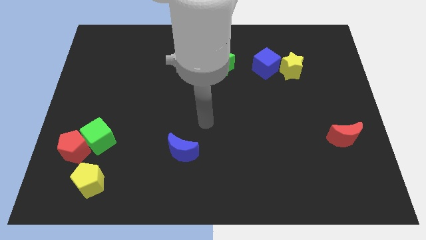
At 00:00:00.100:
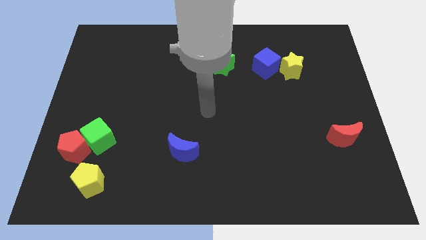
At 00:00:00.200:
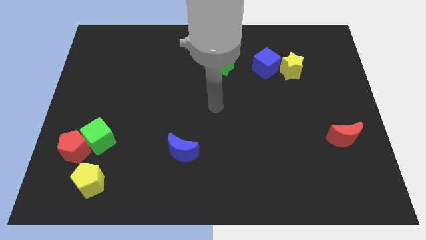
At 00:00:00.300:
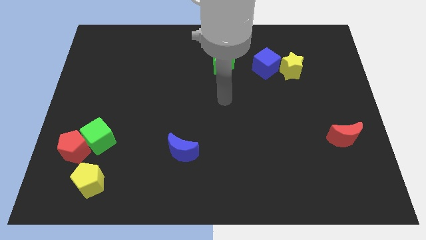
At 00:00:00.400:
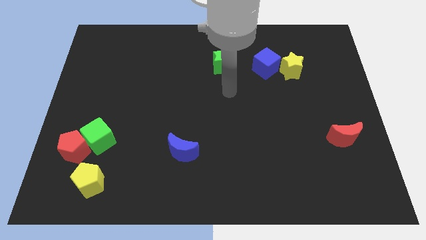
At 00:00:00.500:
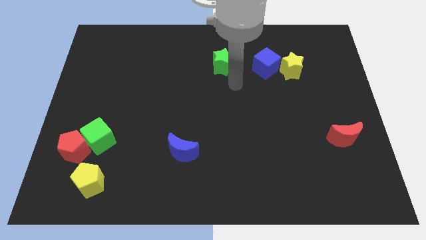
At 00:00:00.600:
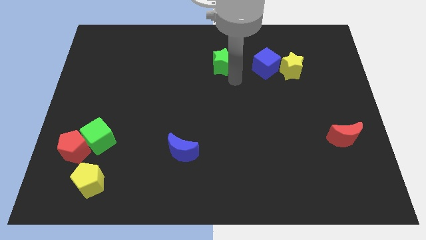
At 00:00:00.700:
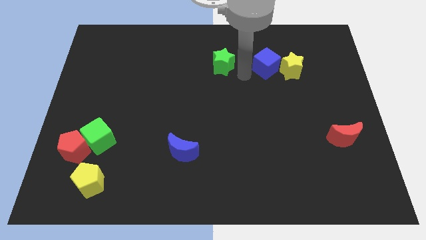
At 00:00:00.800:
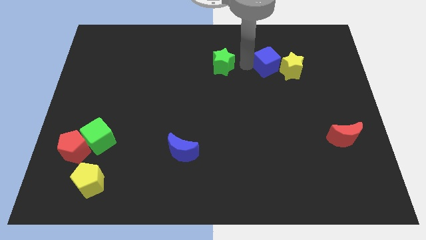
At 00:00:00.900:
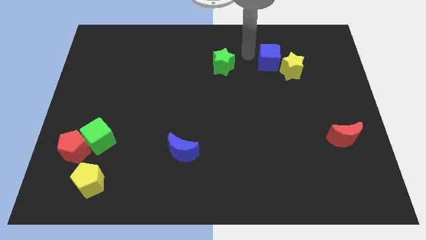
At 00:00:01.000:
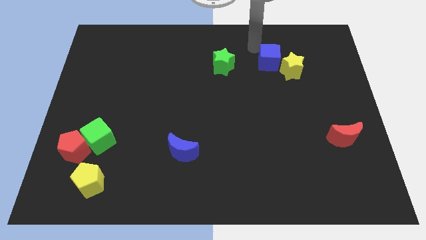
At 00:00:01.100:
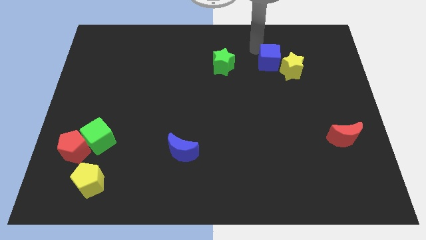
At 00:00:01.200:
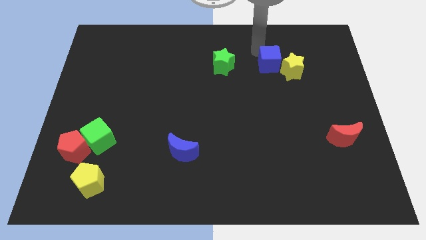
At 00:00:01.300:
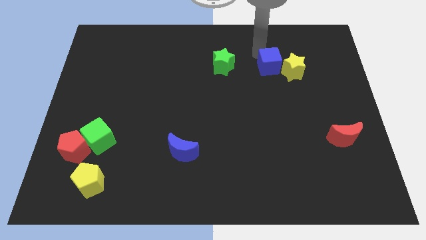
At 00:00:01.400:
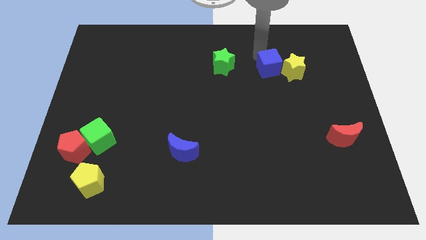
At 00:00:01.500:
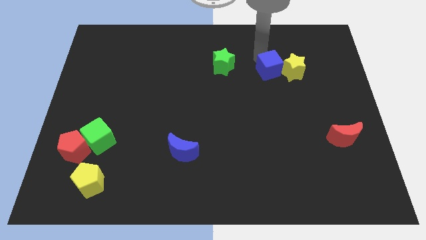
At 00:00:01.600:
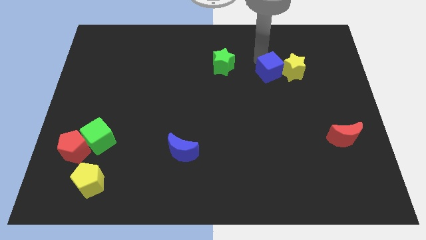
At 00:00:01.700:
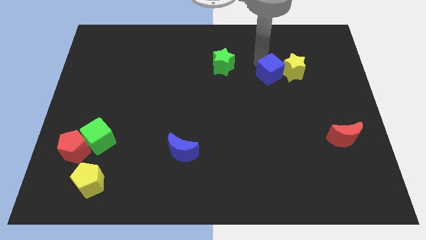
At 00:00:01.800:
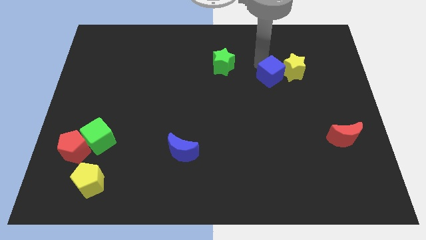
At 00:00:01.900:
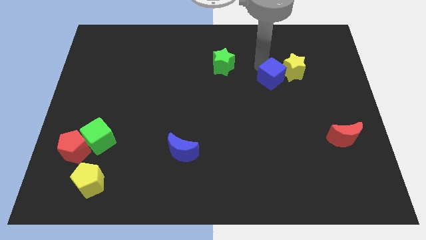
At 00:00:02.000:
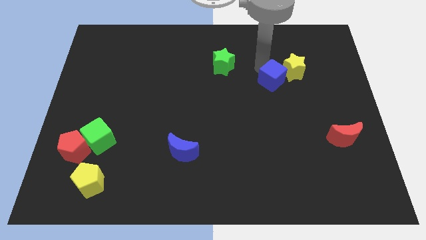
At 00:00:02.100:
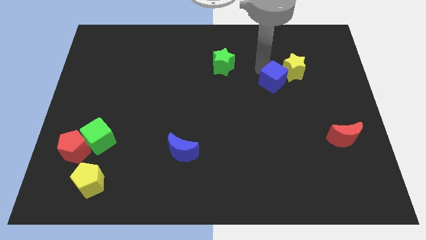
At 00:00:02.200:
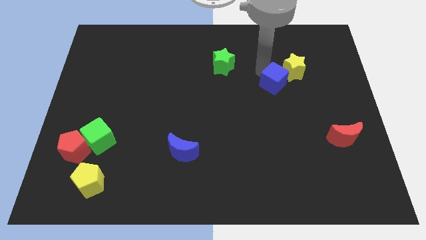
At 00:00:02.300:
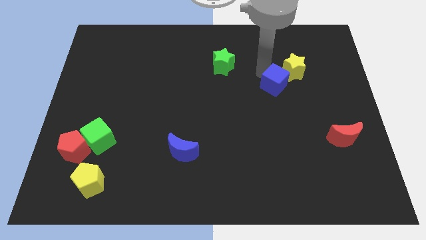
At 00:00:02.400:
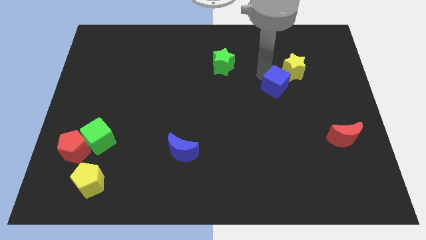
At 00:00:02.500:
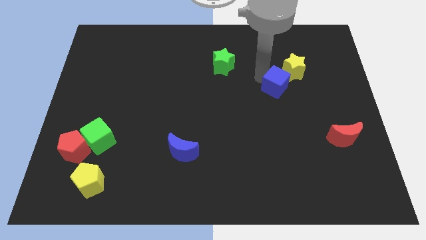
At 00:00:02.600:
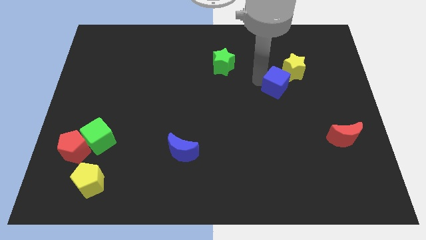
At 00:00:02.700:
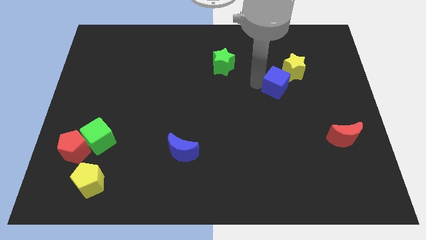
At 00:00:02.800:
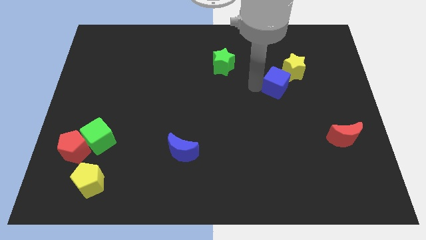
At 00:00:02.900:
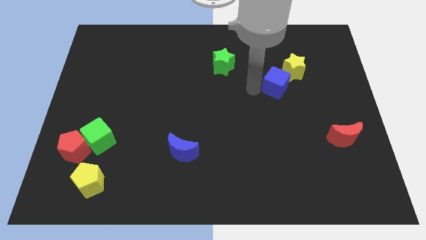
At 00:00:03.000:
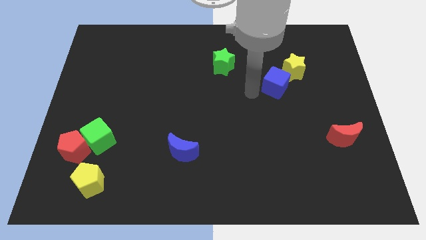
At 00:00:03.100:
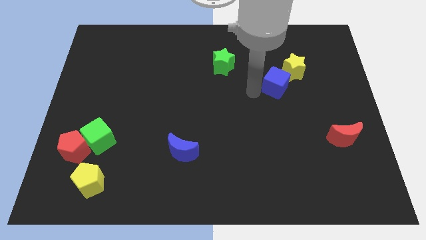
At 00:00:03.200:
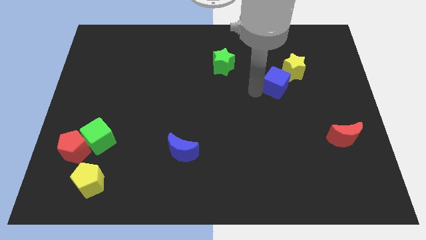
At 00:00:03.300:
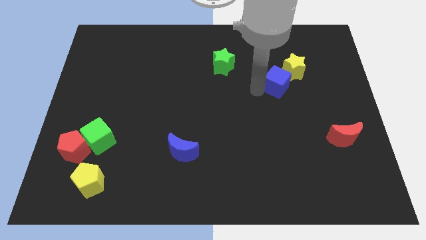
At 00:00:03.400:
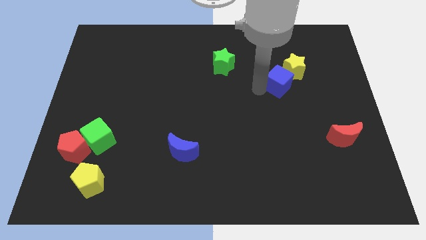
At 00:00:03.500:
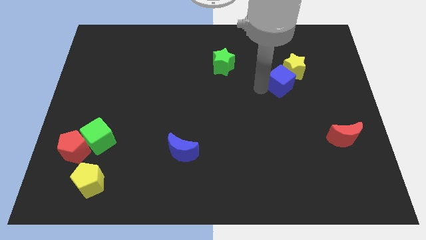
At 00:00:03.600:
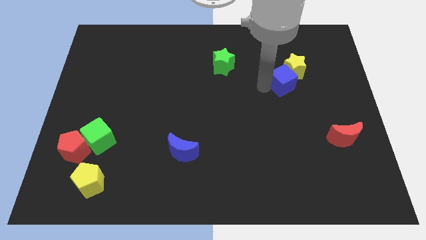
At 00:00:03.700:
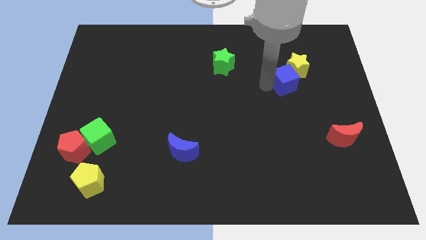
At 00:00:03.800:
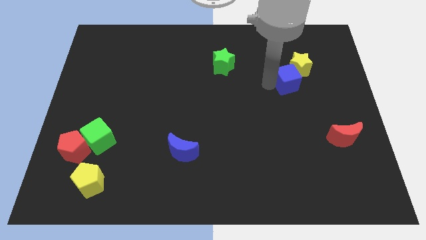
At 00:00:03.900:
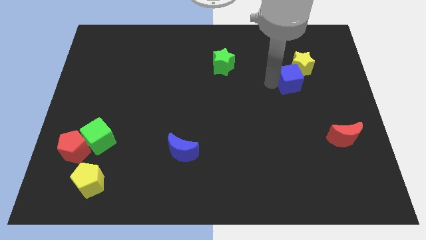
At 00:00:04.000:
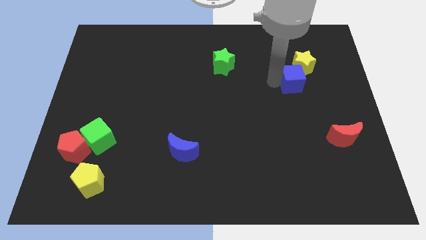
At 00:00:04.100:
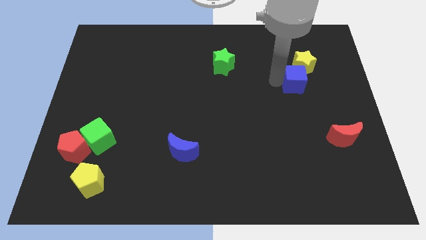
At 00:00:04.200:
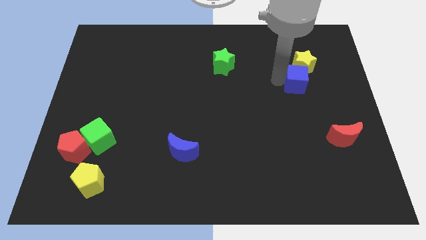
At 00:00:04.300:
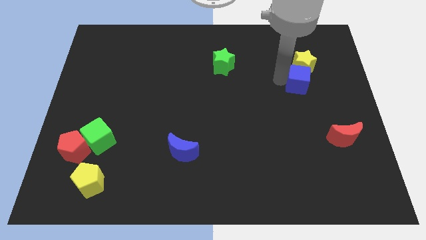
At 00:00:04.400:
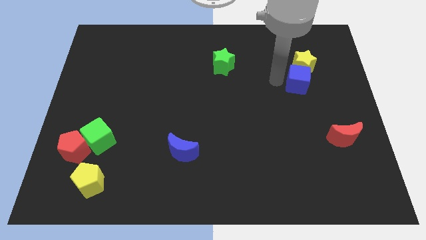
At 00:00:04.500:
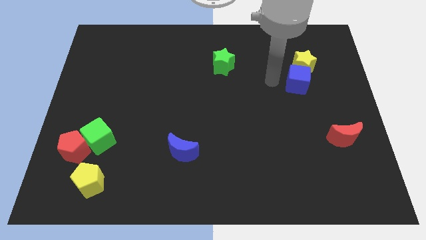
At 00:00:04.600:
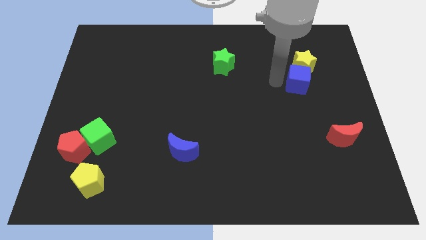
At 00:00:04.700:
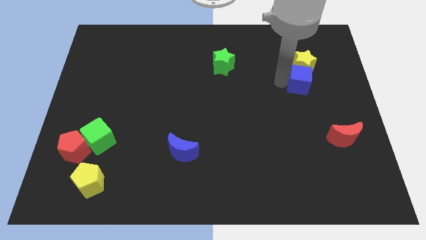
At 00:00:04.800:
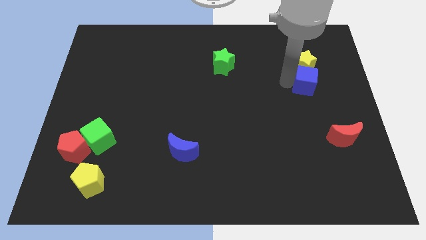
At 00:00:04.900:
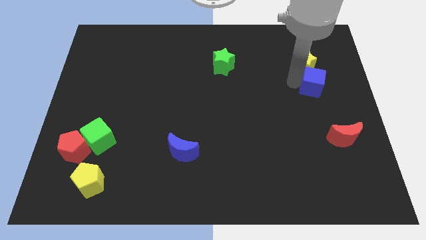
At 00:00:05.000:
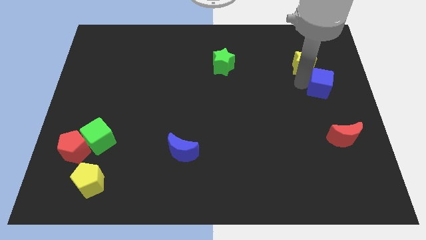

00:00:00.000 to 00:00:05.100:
push the blue cube to the center right
